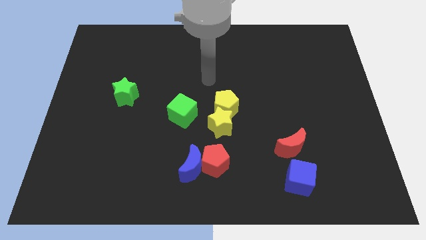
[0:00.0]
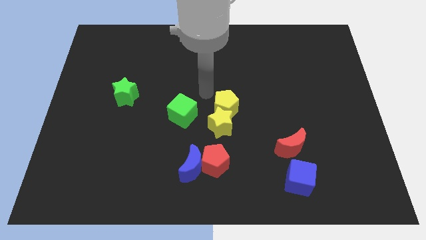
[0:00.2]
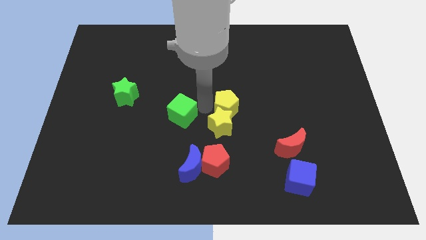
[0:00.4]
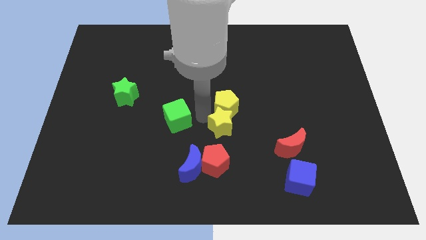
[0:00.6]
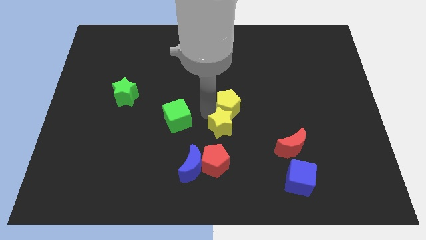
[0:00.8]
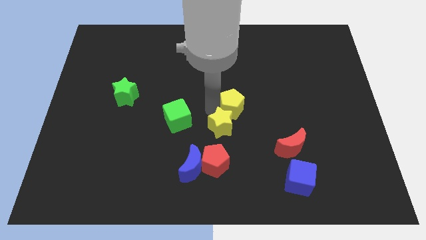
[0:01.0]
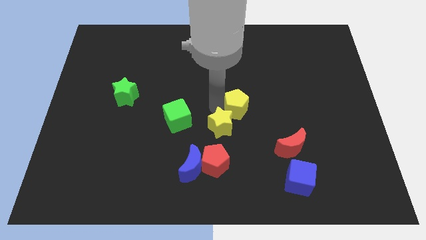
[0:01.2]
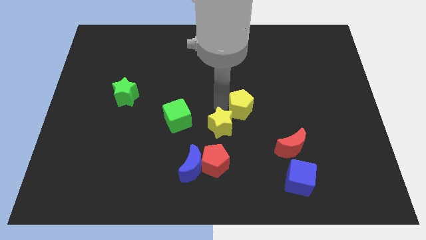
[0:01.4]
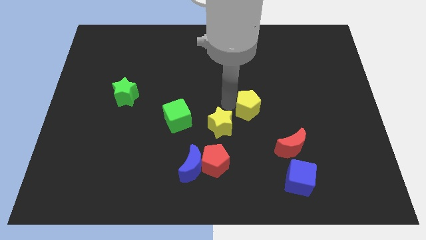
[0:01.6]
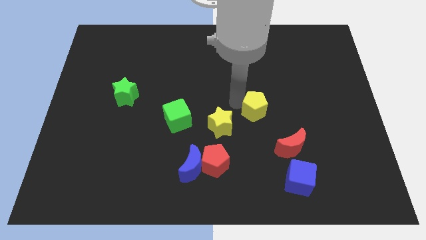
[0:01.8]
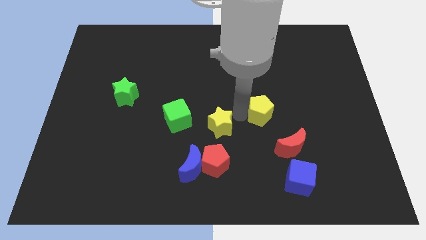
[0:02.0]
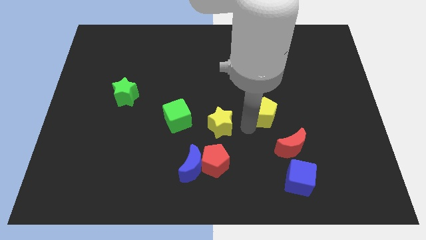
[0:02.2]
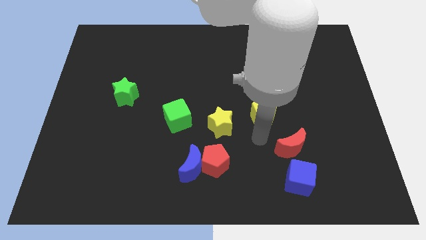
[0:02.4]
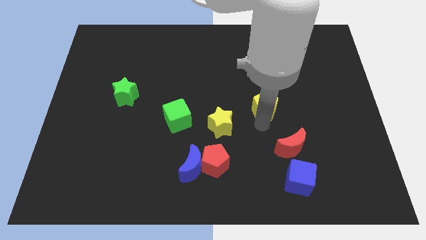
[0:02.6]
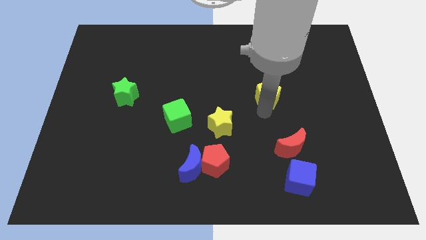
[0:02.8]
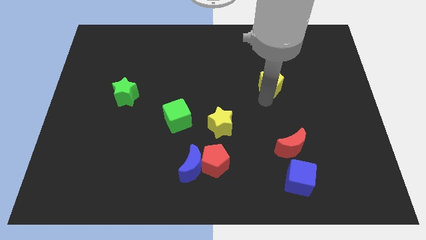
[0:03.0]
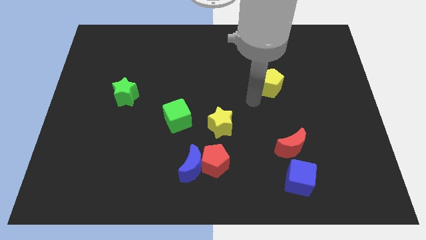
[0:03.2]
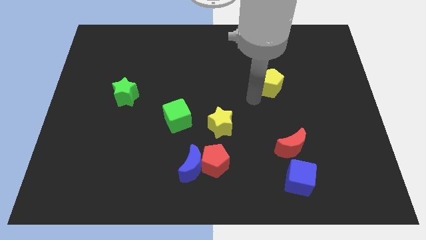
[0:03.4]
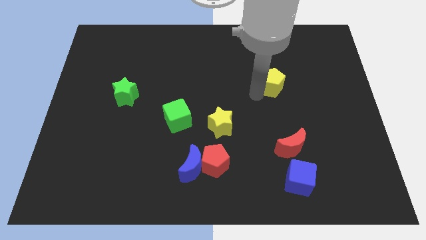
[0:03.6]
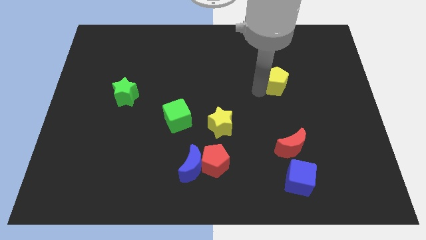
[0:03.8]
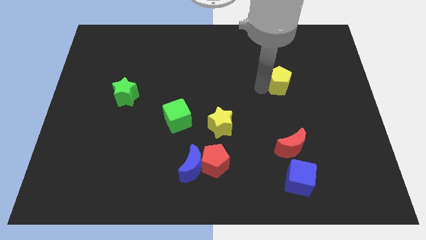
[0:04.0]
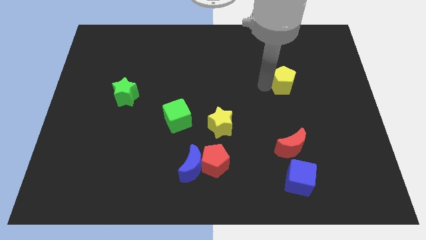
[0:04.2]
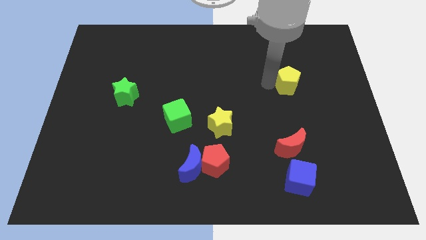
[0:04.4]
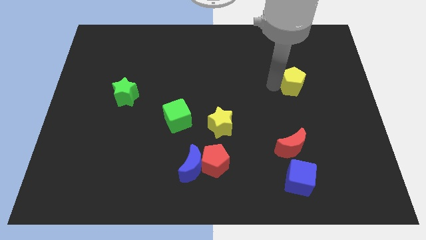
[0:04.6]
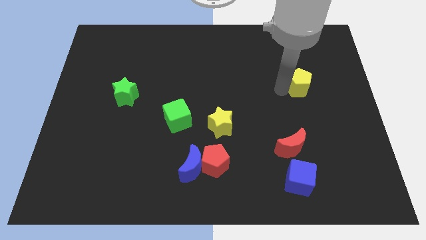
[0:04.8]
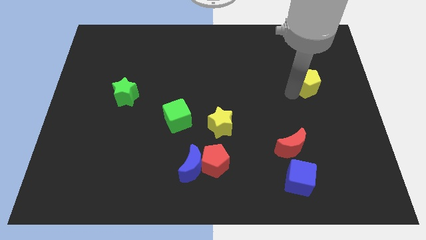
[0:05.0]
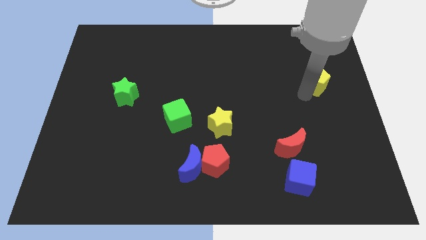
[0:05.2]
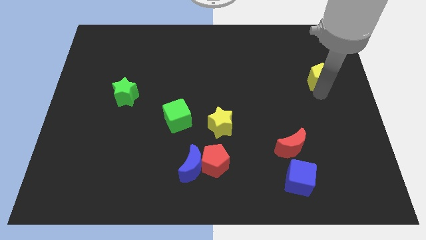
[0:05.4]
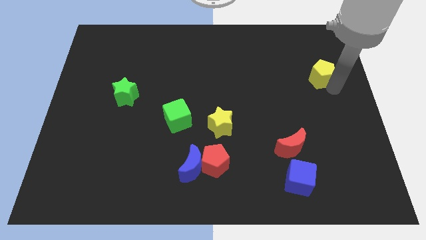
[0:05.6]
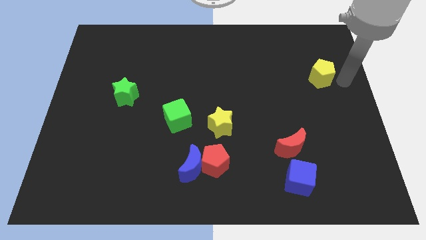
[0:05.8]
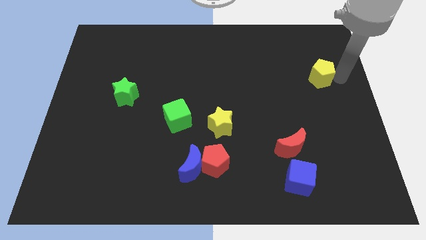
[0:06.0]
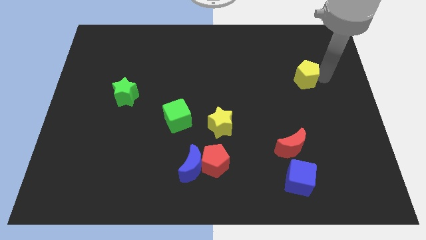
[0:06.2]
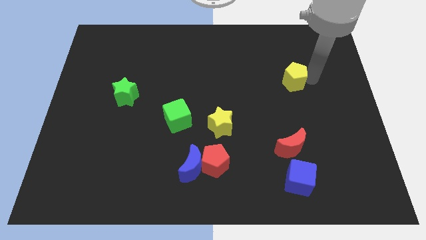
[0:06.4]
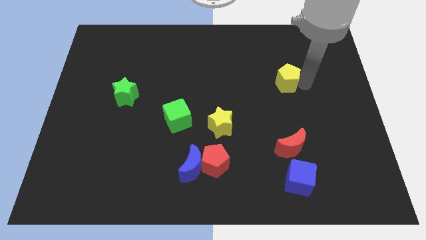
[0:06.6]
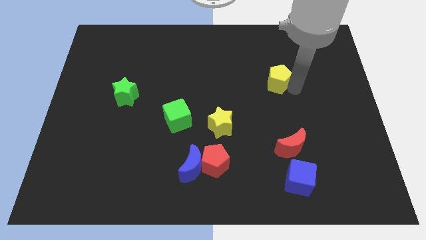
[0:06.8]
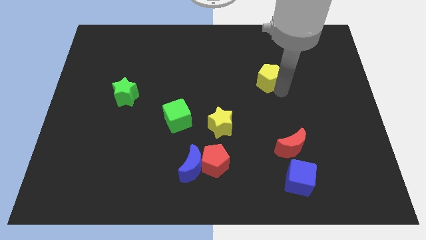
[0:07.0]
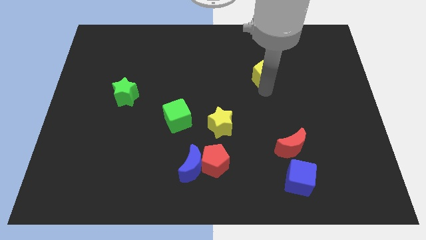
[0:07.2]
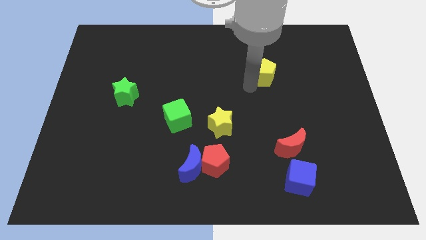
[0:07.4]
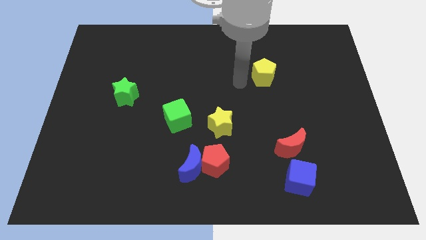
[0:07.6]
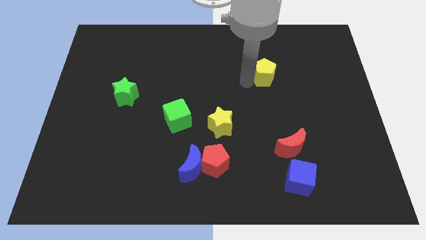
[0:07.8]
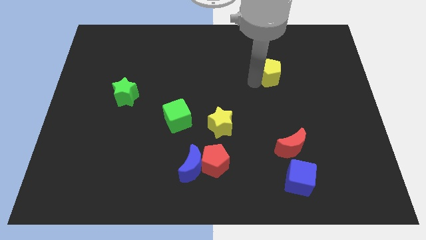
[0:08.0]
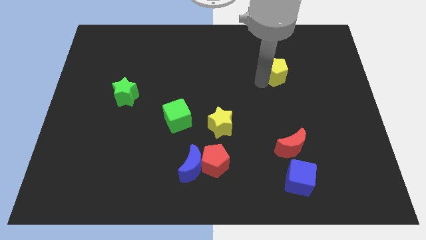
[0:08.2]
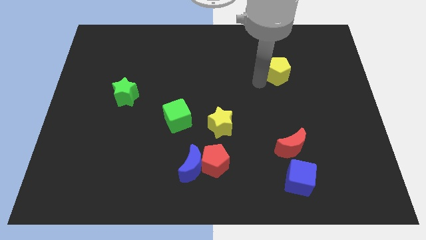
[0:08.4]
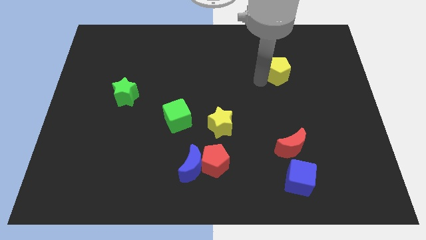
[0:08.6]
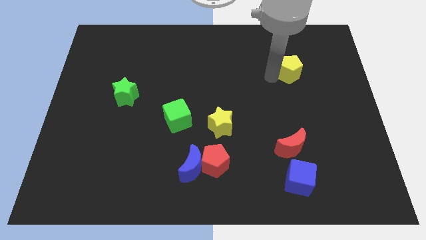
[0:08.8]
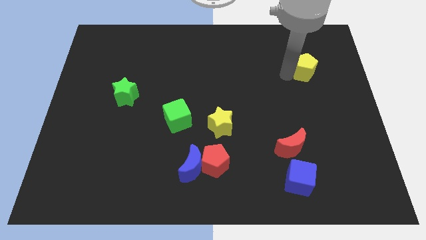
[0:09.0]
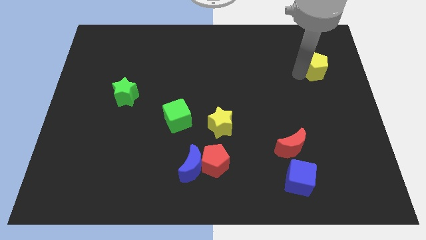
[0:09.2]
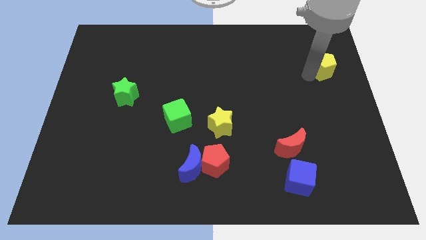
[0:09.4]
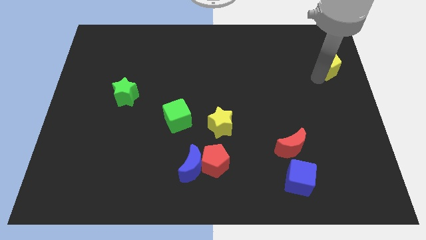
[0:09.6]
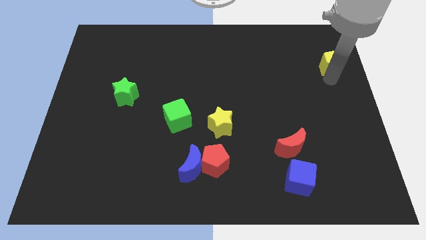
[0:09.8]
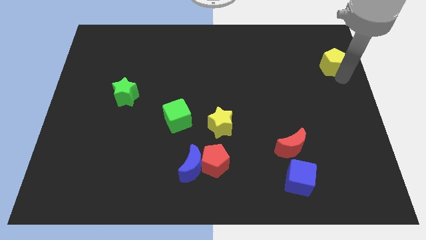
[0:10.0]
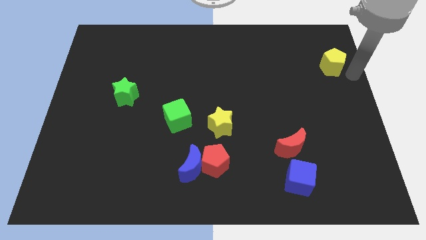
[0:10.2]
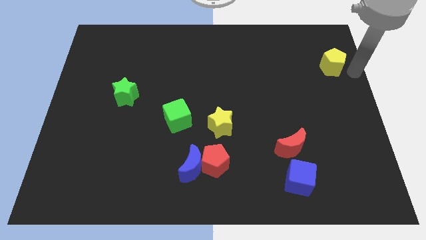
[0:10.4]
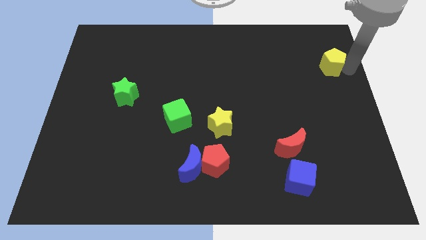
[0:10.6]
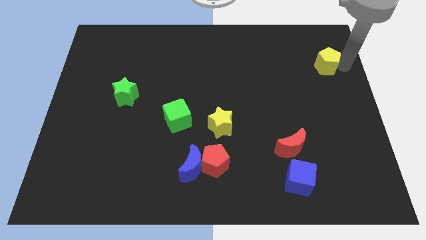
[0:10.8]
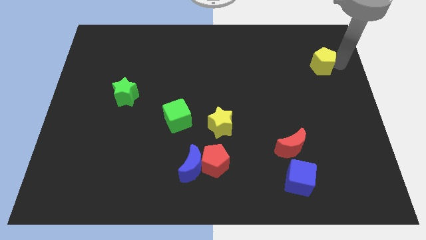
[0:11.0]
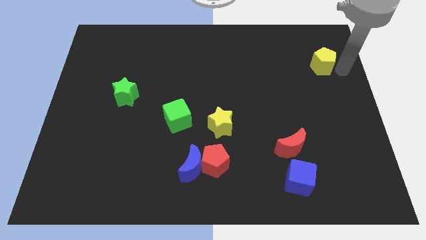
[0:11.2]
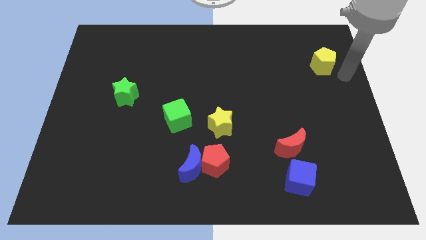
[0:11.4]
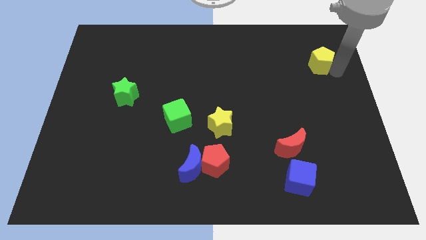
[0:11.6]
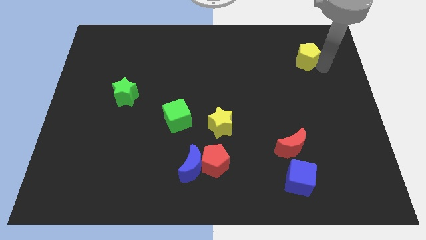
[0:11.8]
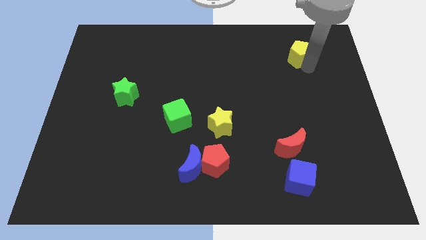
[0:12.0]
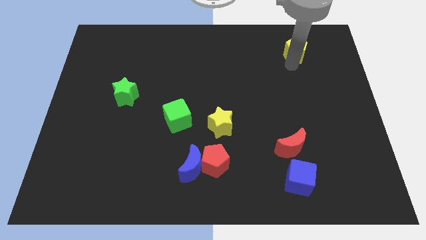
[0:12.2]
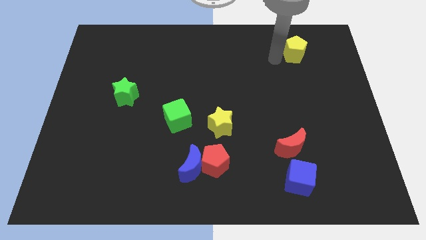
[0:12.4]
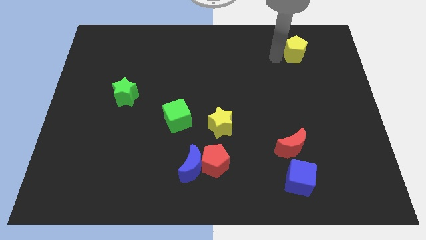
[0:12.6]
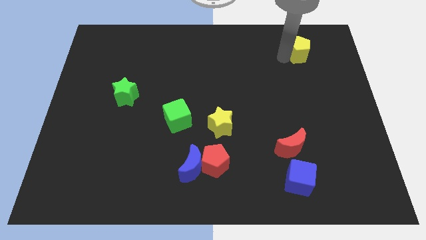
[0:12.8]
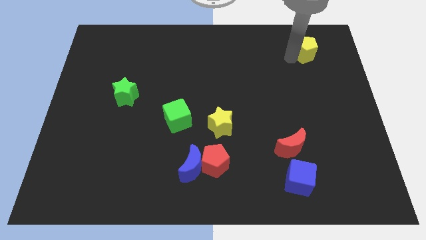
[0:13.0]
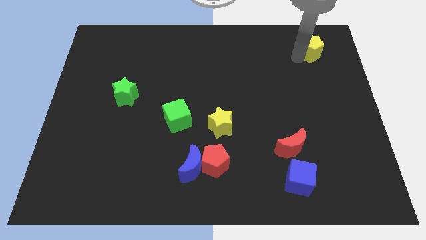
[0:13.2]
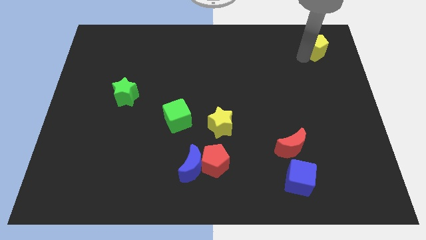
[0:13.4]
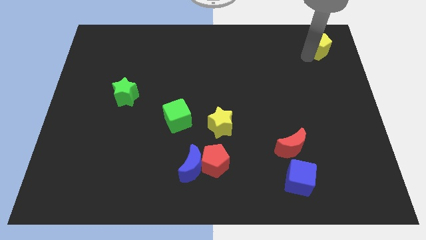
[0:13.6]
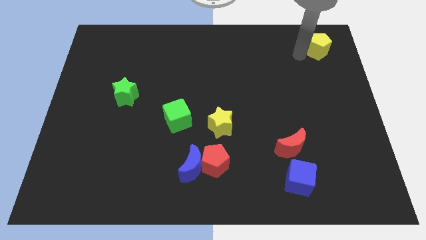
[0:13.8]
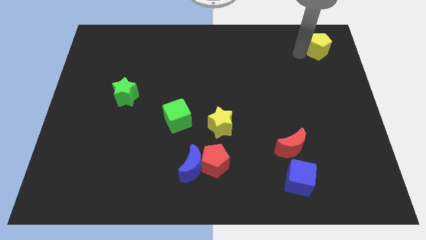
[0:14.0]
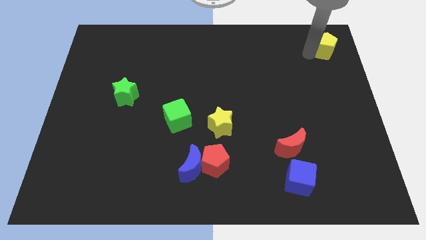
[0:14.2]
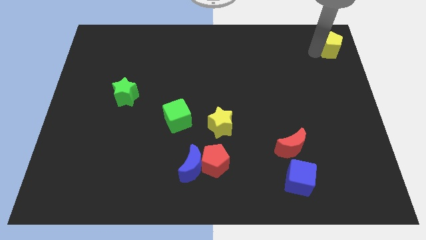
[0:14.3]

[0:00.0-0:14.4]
put the yellow pentagon to the upper right corner

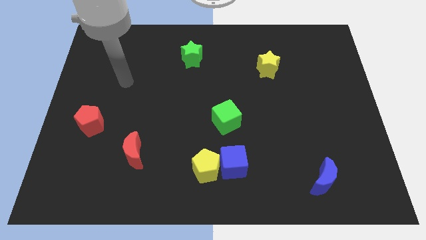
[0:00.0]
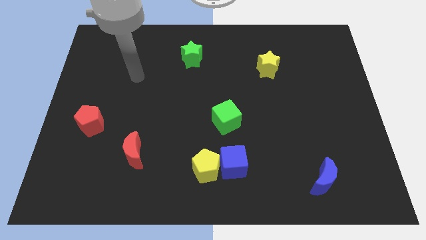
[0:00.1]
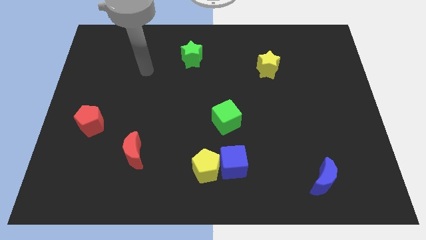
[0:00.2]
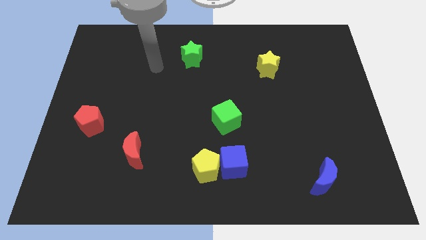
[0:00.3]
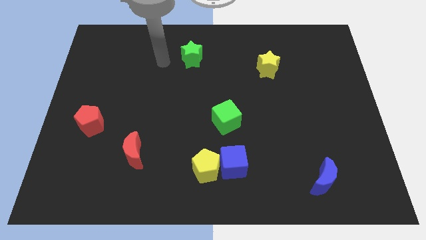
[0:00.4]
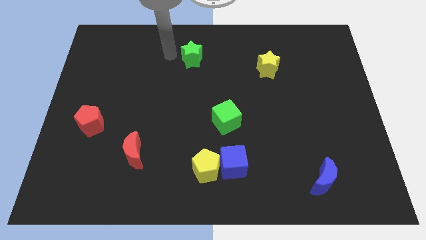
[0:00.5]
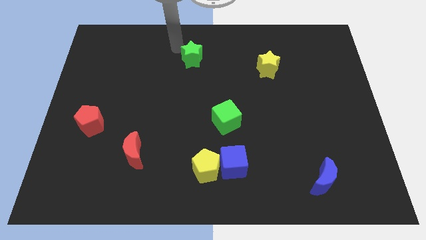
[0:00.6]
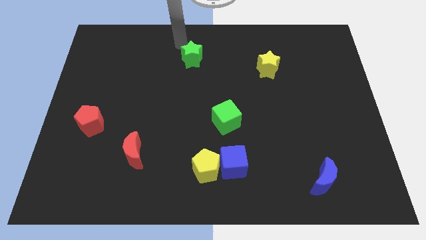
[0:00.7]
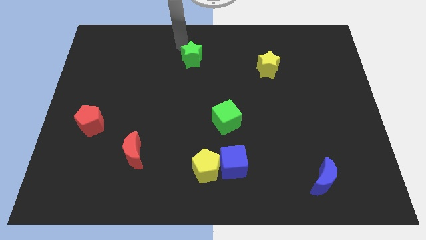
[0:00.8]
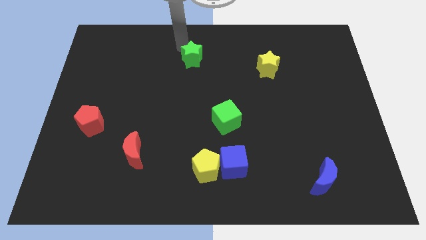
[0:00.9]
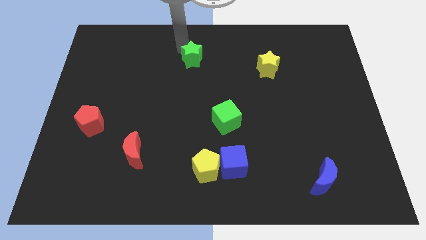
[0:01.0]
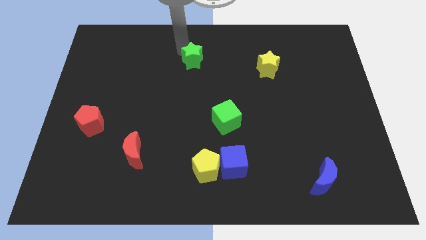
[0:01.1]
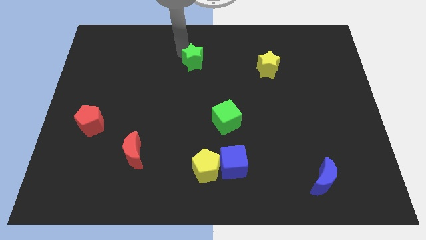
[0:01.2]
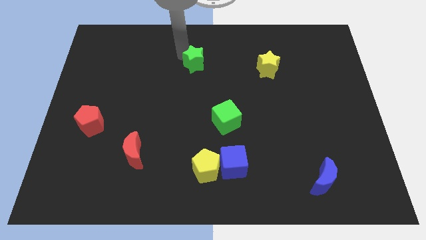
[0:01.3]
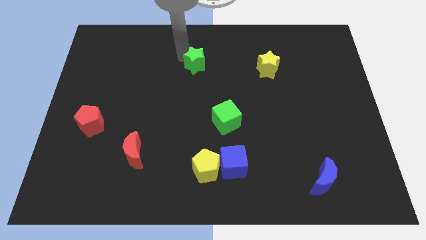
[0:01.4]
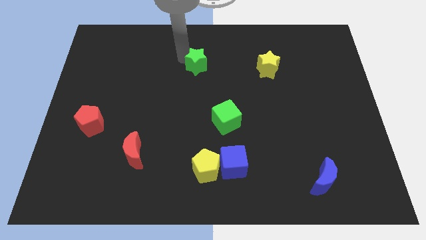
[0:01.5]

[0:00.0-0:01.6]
push the green star to the center of the board
